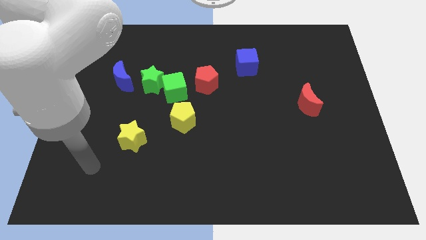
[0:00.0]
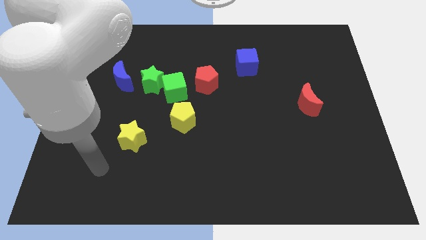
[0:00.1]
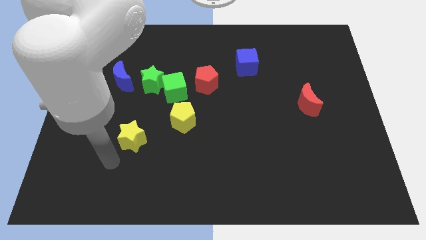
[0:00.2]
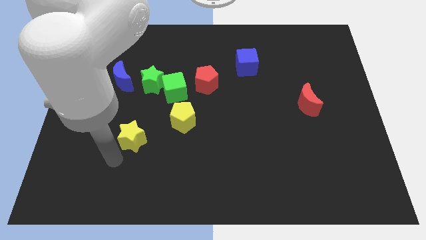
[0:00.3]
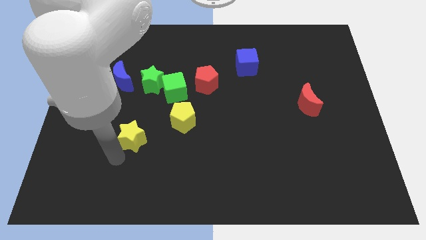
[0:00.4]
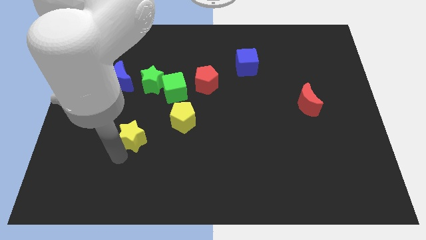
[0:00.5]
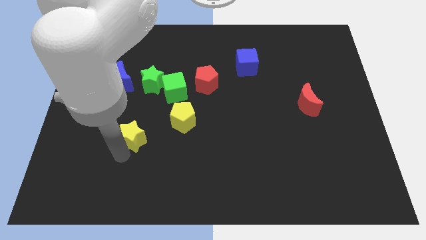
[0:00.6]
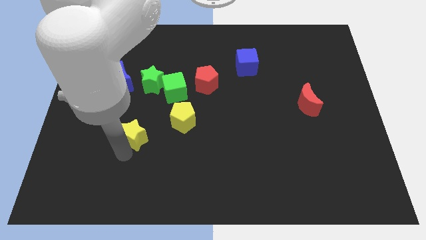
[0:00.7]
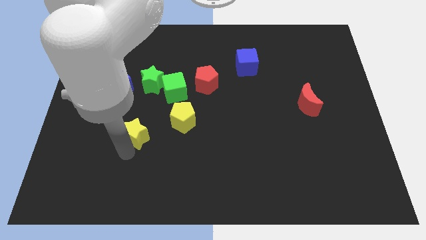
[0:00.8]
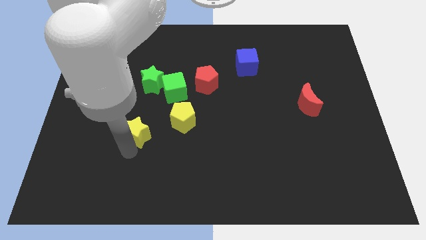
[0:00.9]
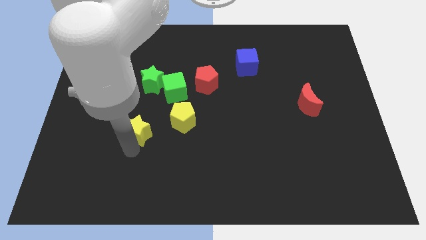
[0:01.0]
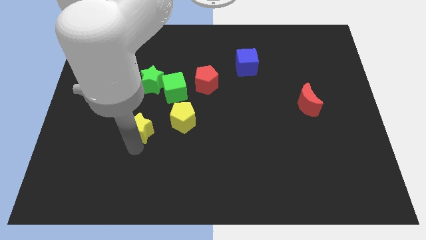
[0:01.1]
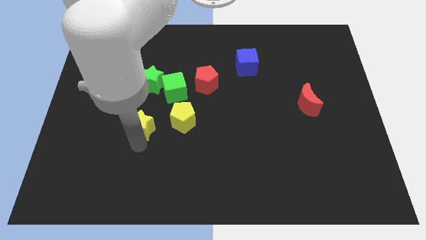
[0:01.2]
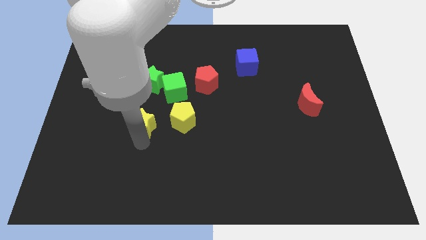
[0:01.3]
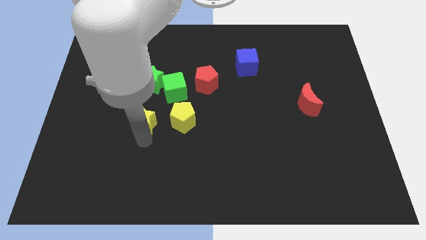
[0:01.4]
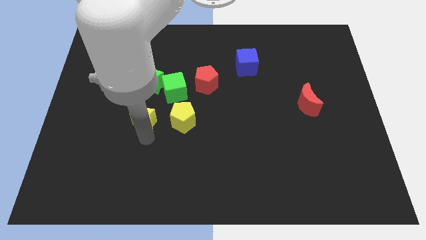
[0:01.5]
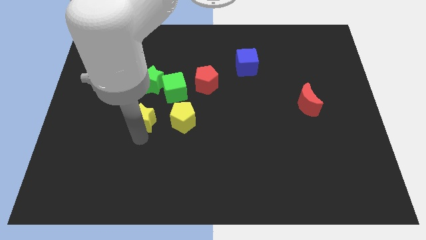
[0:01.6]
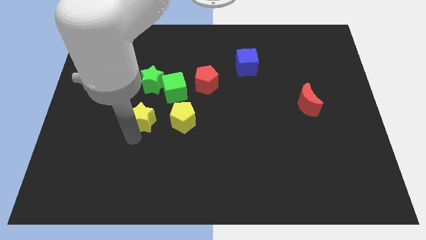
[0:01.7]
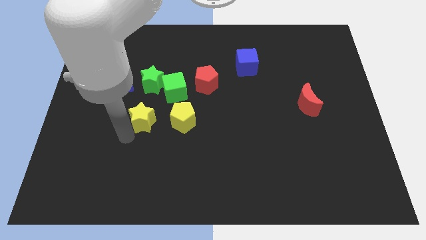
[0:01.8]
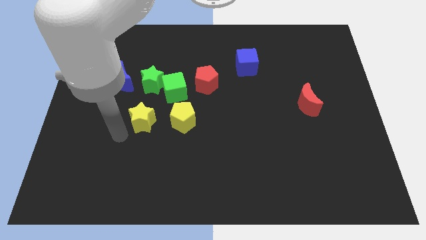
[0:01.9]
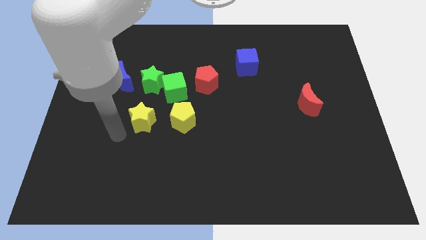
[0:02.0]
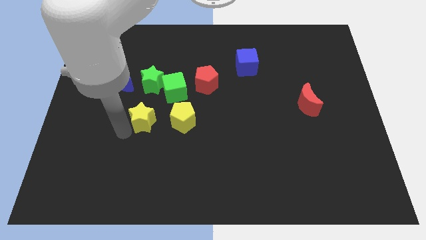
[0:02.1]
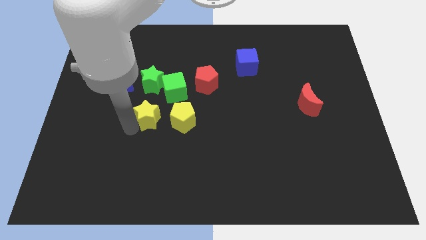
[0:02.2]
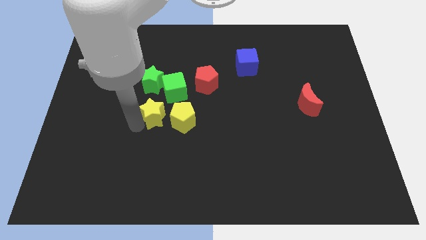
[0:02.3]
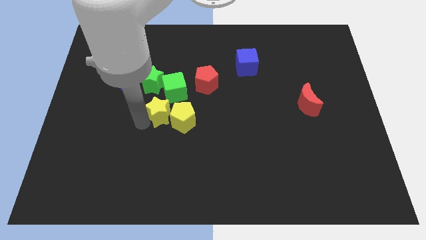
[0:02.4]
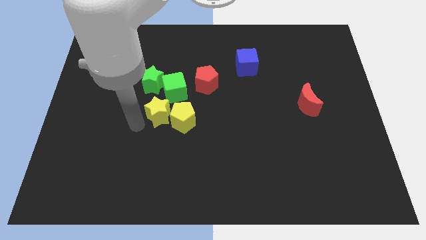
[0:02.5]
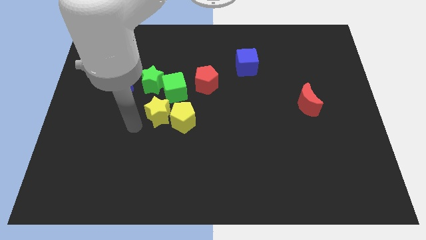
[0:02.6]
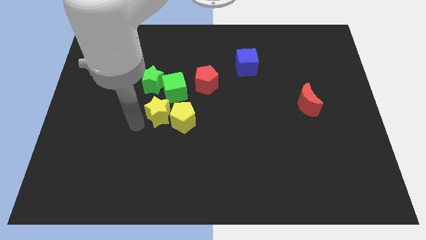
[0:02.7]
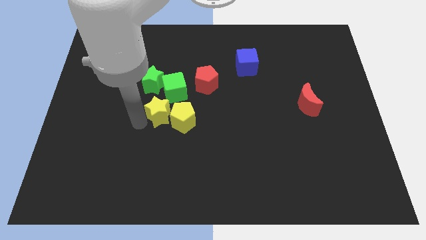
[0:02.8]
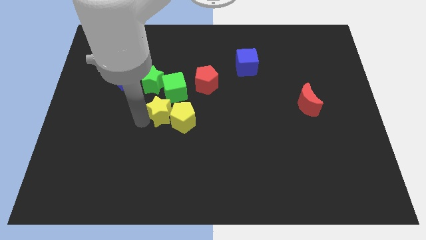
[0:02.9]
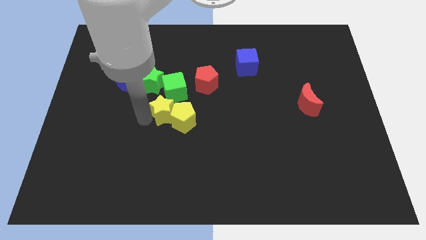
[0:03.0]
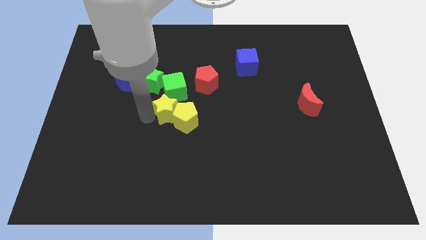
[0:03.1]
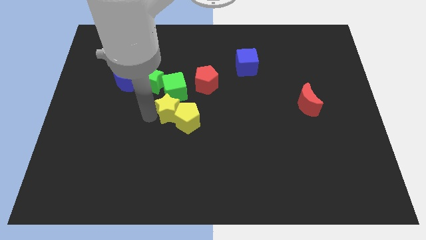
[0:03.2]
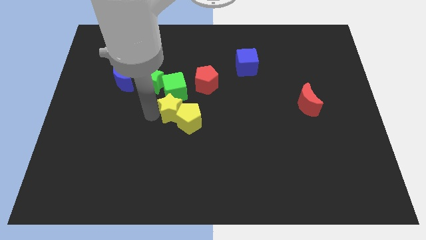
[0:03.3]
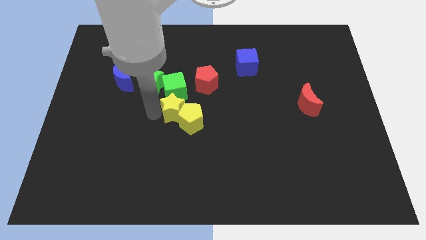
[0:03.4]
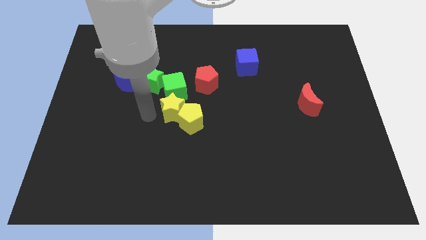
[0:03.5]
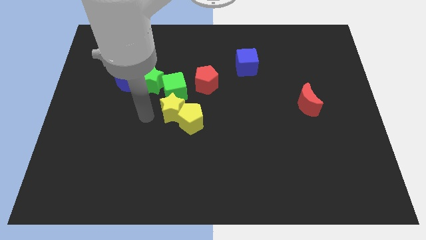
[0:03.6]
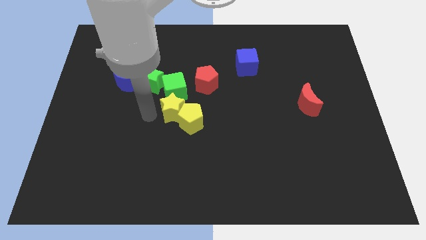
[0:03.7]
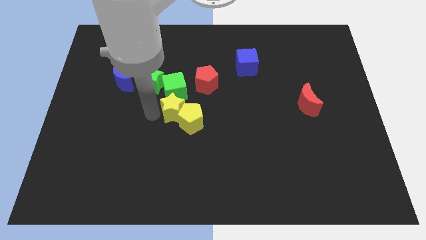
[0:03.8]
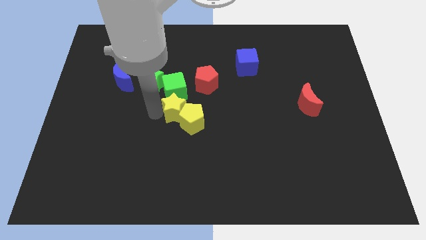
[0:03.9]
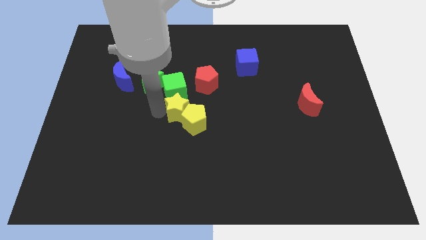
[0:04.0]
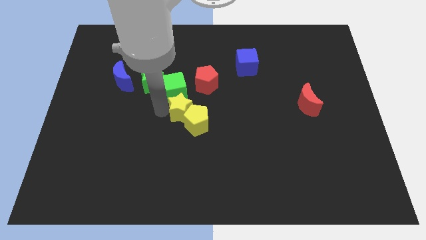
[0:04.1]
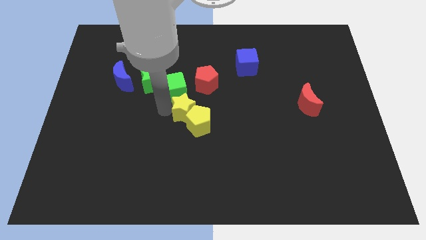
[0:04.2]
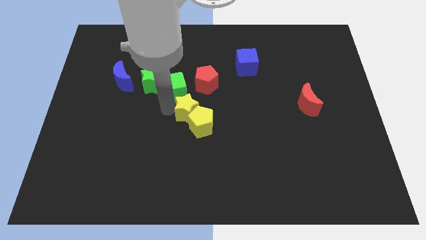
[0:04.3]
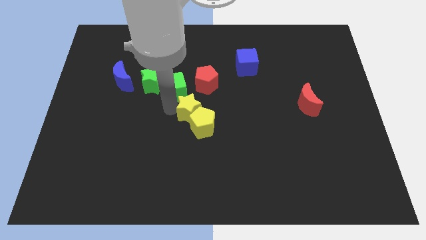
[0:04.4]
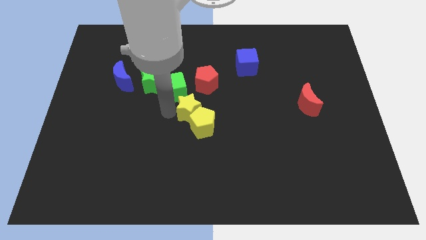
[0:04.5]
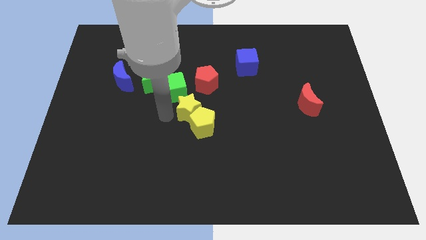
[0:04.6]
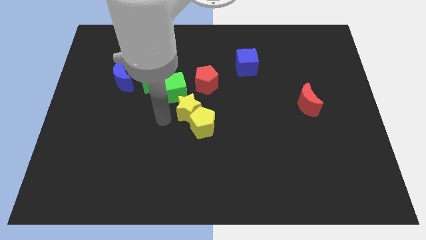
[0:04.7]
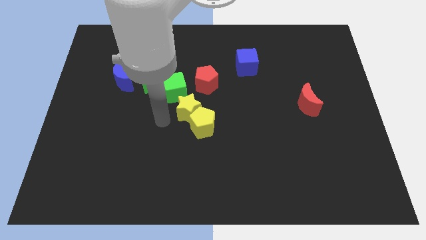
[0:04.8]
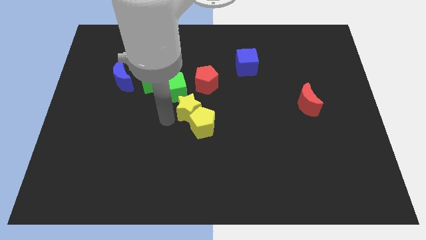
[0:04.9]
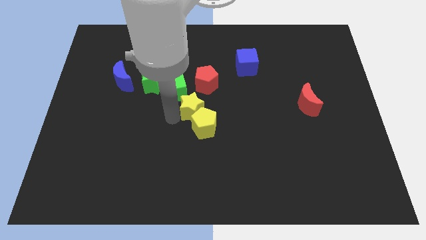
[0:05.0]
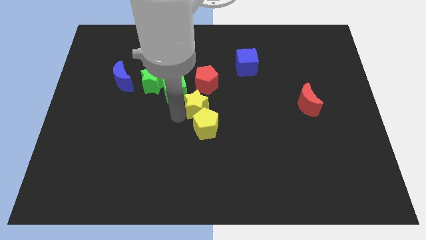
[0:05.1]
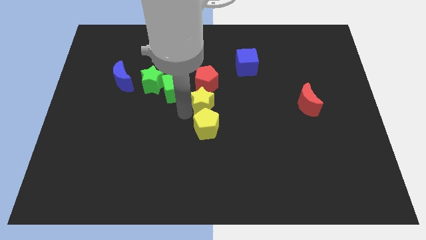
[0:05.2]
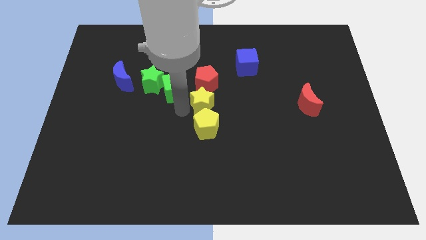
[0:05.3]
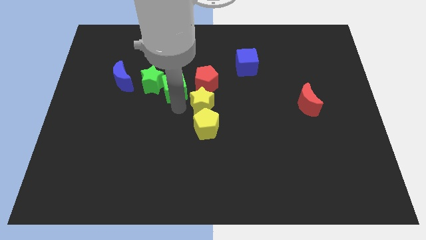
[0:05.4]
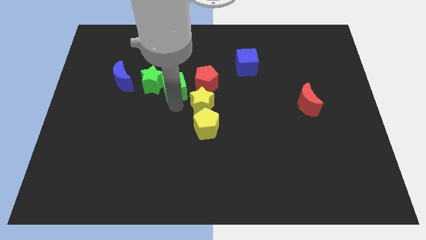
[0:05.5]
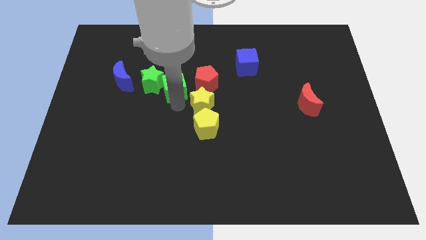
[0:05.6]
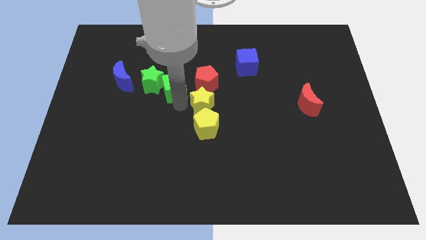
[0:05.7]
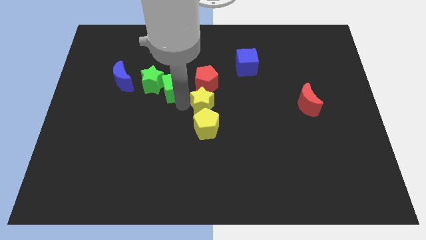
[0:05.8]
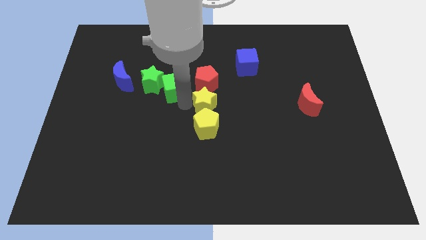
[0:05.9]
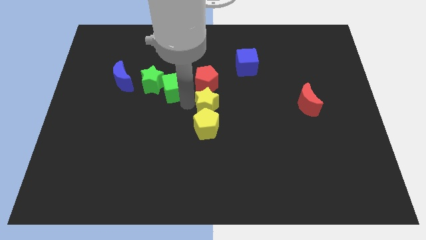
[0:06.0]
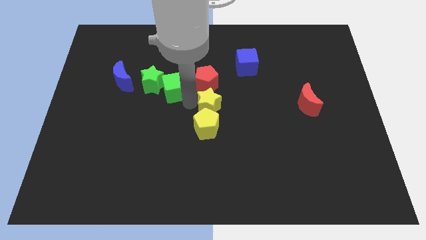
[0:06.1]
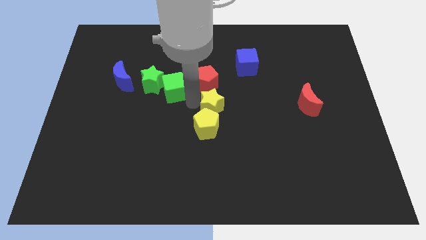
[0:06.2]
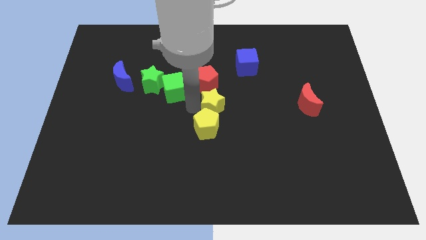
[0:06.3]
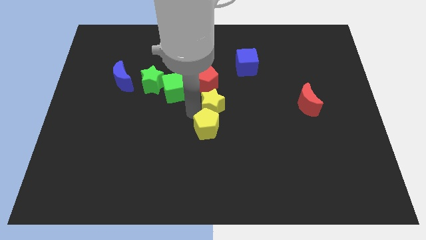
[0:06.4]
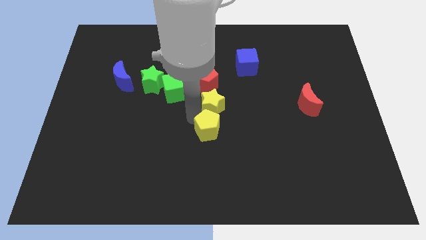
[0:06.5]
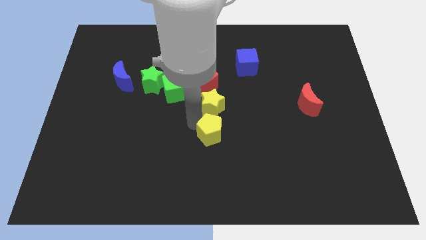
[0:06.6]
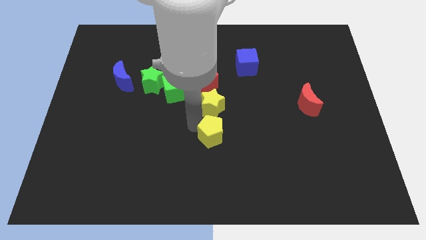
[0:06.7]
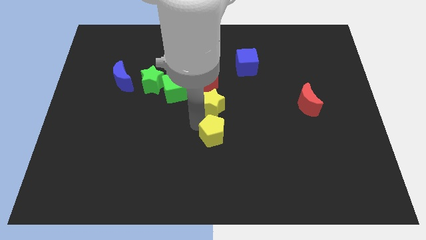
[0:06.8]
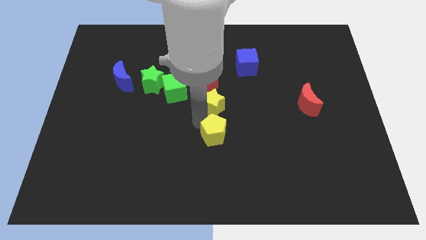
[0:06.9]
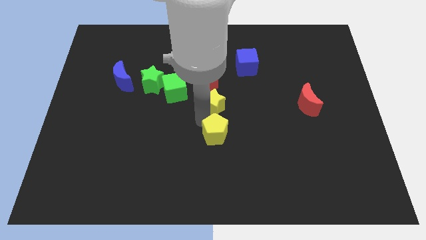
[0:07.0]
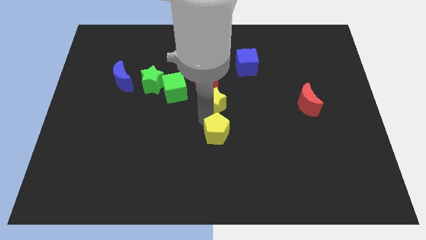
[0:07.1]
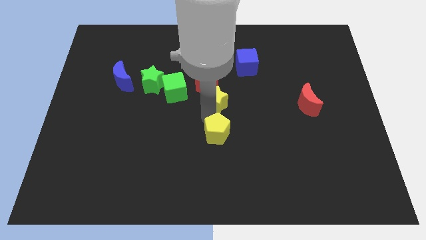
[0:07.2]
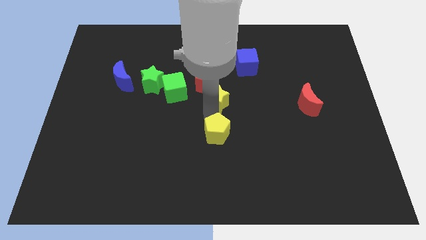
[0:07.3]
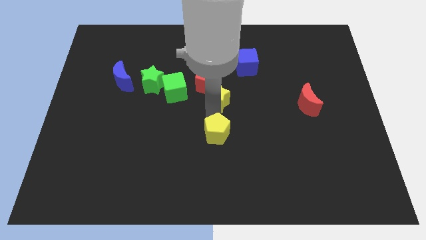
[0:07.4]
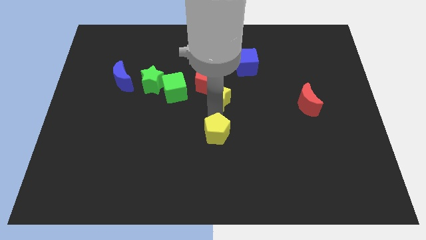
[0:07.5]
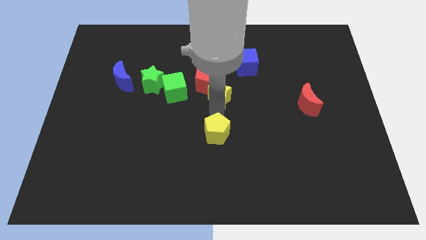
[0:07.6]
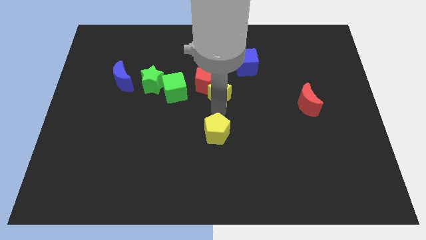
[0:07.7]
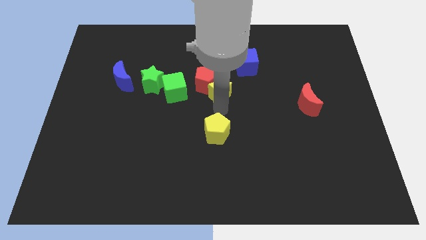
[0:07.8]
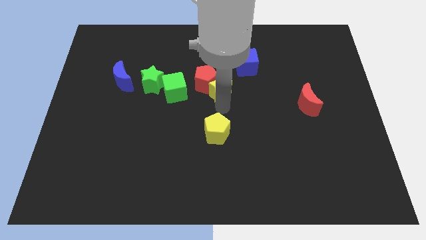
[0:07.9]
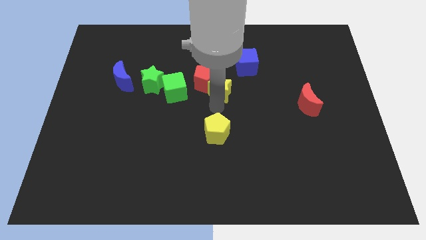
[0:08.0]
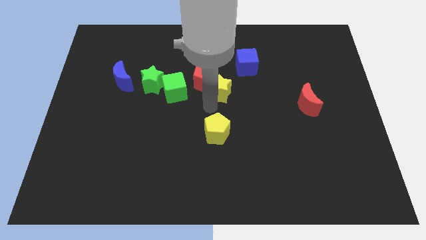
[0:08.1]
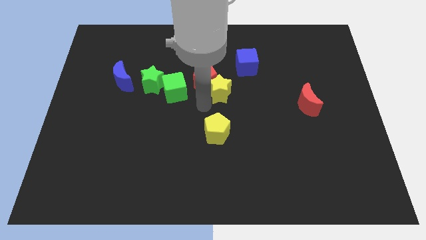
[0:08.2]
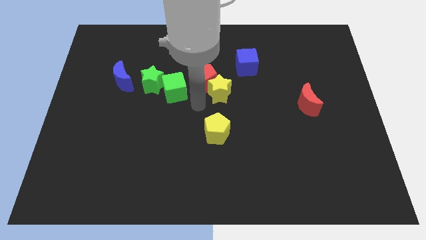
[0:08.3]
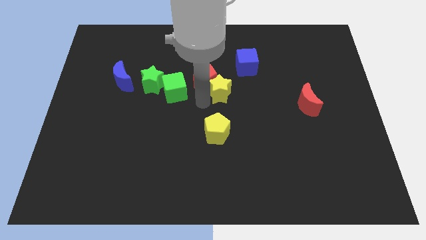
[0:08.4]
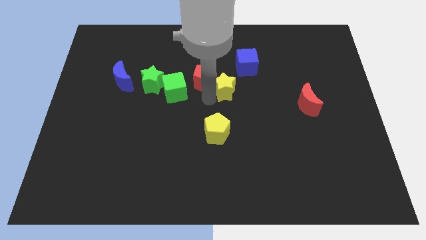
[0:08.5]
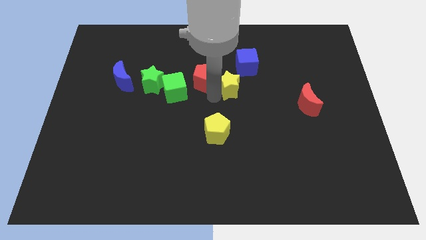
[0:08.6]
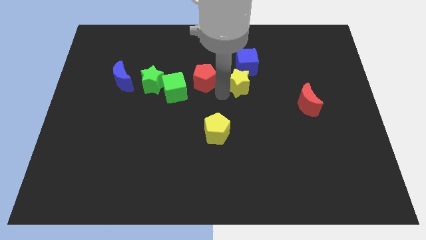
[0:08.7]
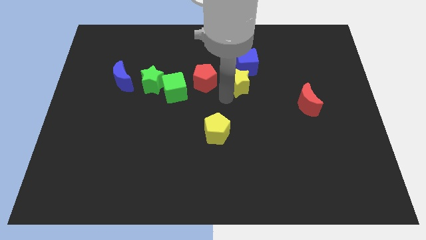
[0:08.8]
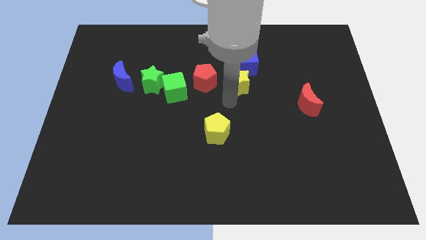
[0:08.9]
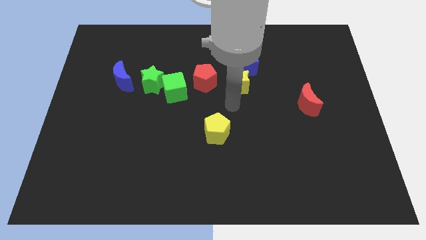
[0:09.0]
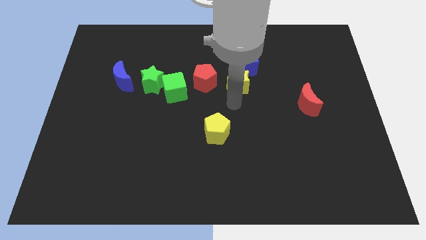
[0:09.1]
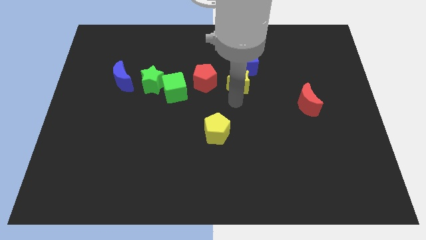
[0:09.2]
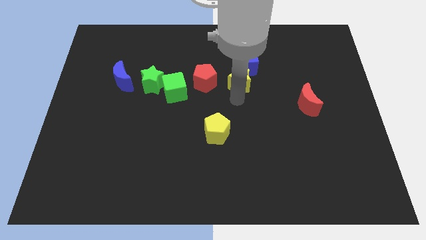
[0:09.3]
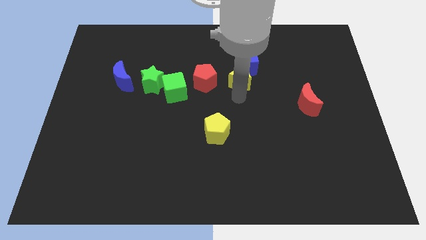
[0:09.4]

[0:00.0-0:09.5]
move the yellow star close to the blue cube
